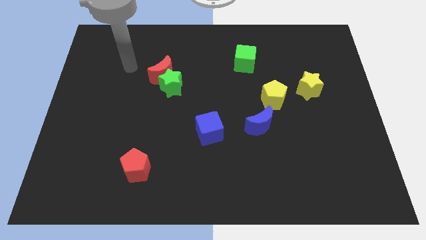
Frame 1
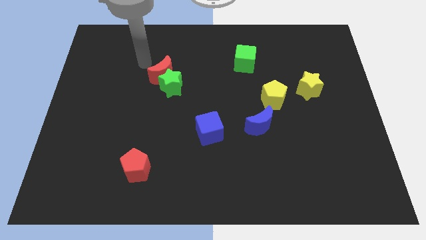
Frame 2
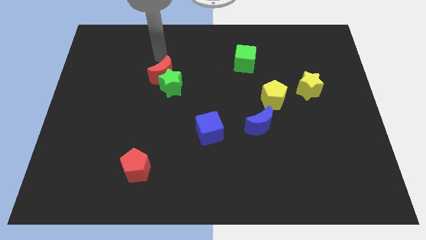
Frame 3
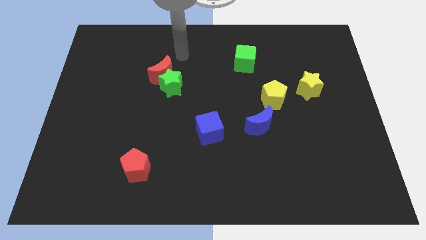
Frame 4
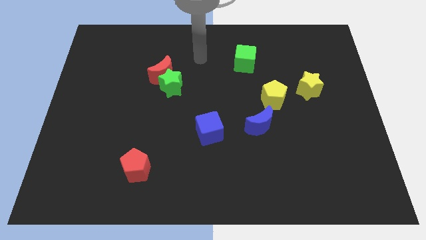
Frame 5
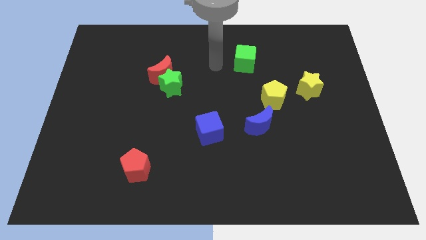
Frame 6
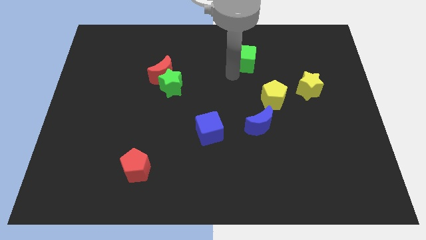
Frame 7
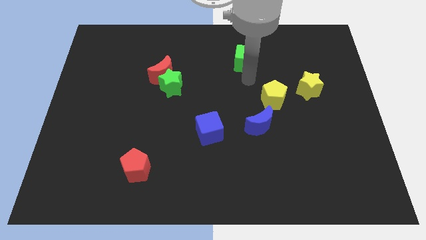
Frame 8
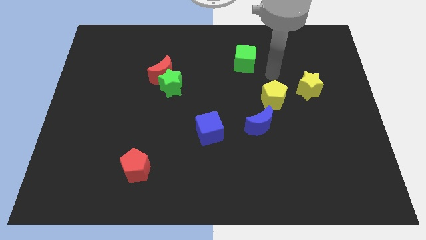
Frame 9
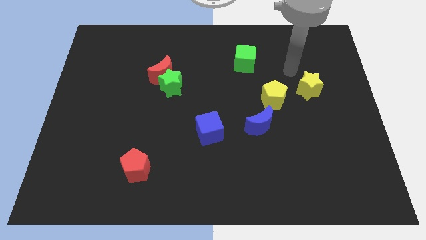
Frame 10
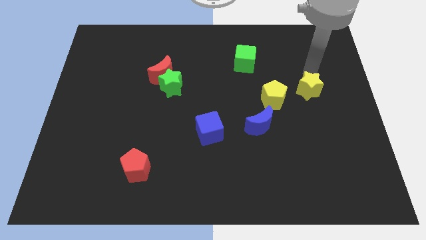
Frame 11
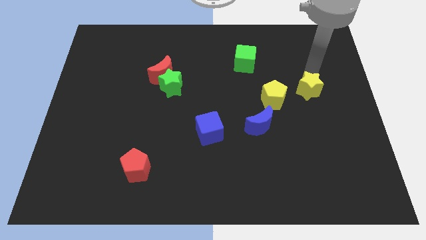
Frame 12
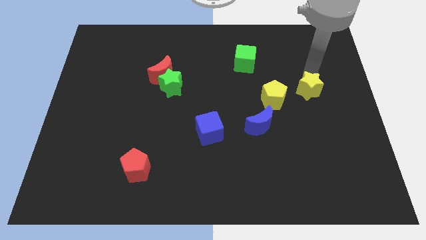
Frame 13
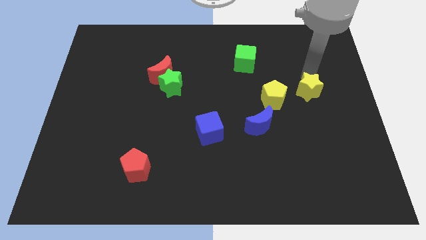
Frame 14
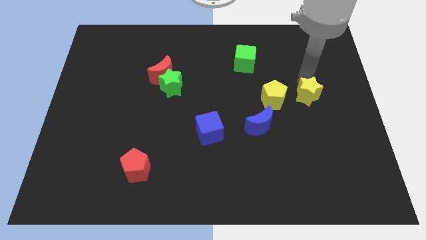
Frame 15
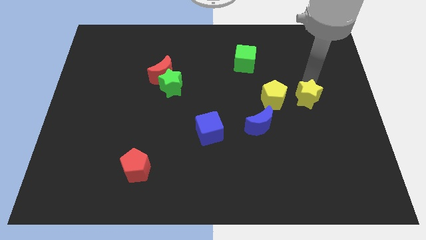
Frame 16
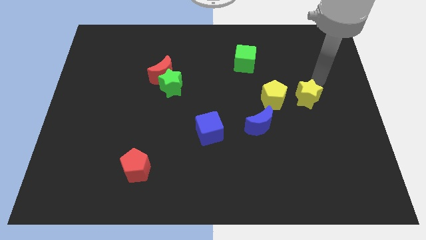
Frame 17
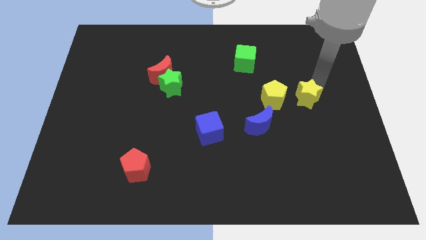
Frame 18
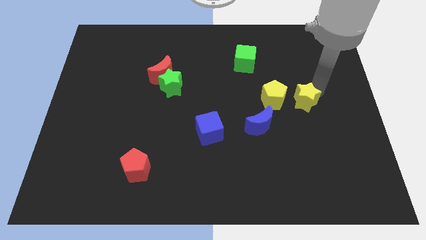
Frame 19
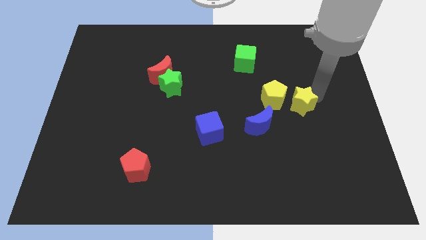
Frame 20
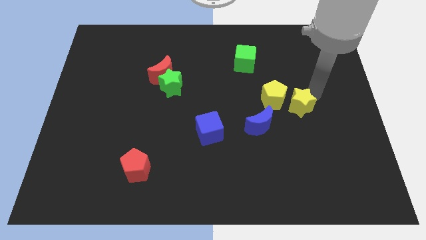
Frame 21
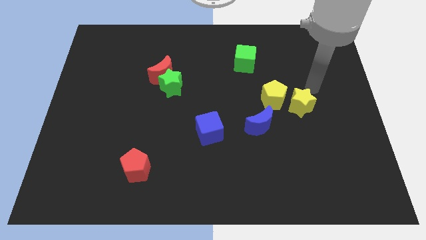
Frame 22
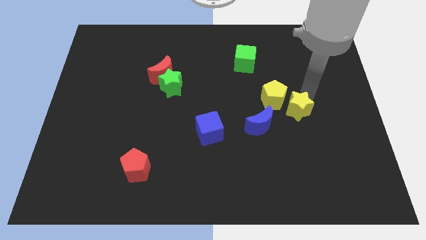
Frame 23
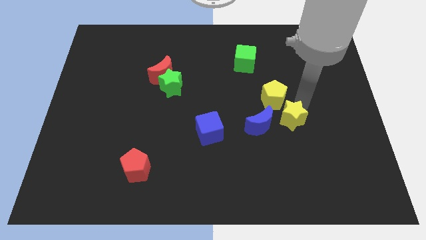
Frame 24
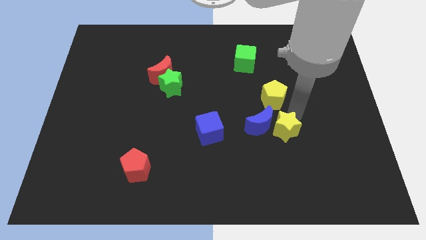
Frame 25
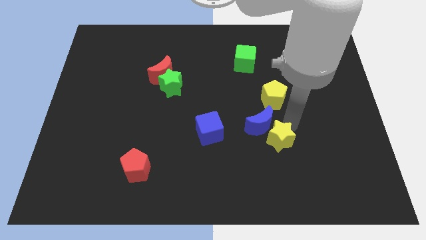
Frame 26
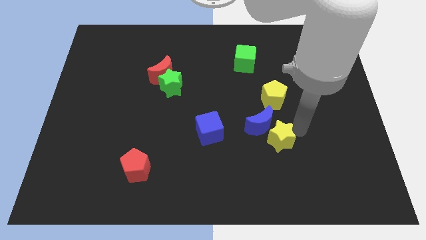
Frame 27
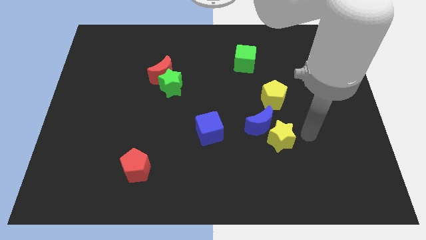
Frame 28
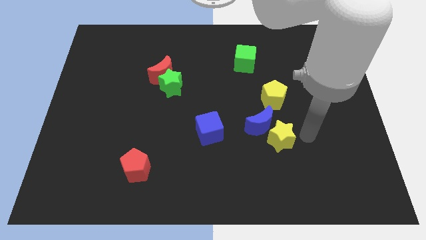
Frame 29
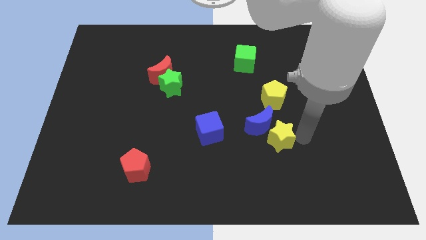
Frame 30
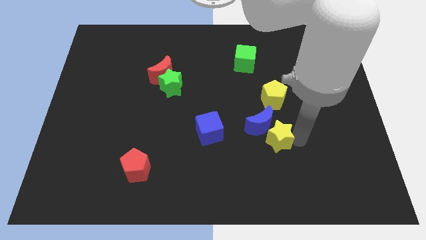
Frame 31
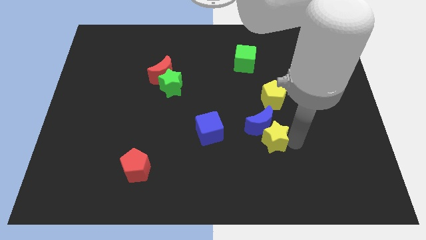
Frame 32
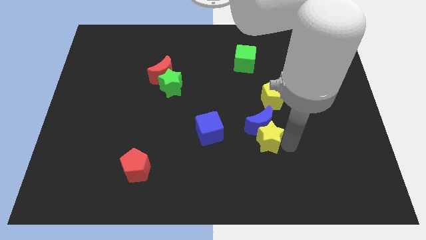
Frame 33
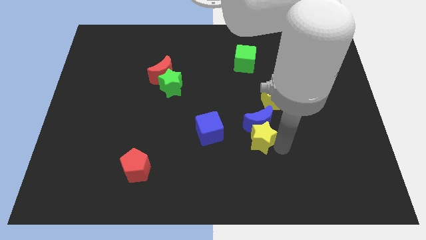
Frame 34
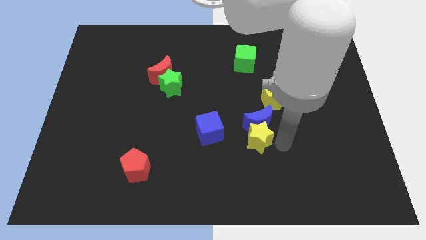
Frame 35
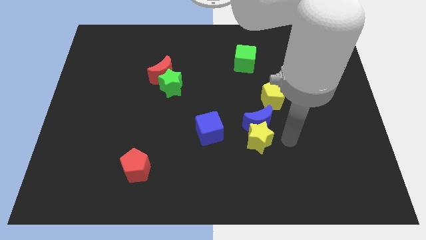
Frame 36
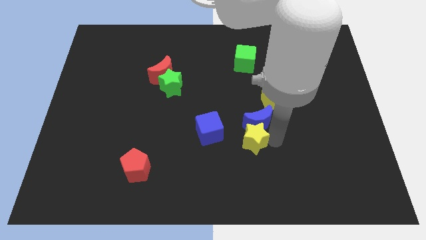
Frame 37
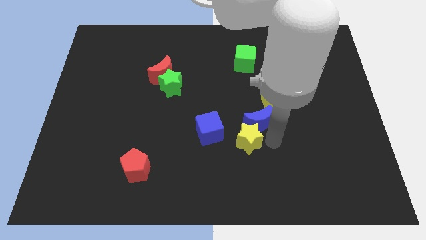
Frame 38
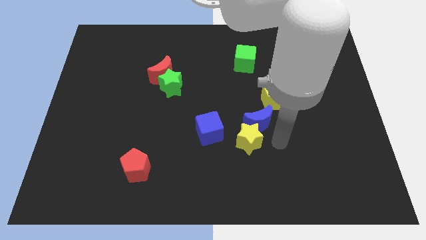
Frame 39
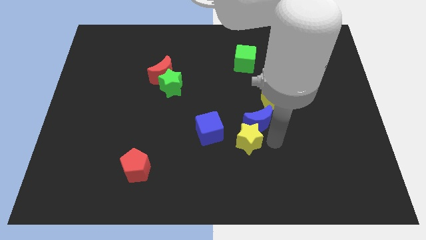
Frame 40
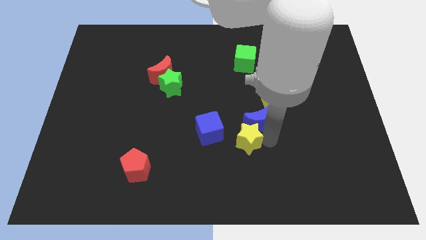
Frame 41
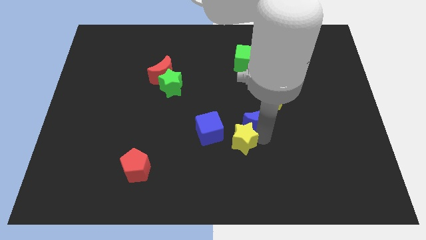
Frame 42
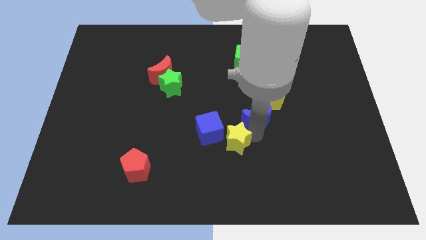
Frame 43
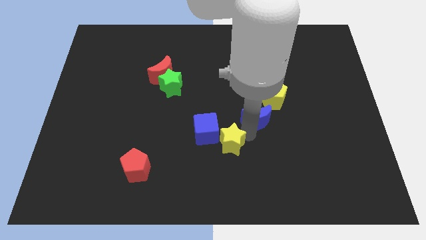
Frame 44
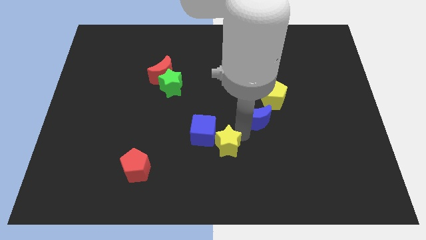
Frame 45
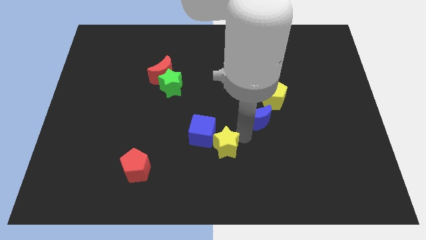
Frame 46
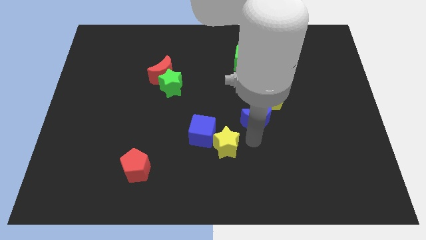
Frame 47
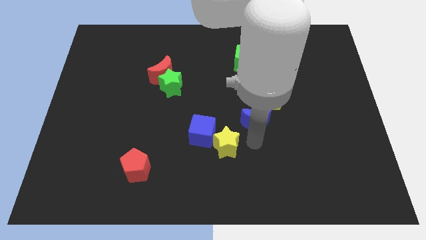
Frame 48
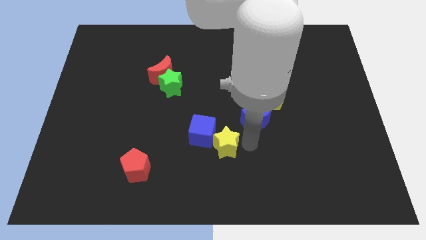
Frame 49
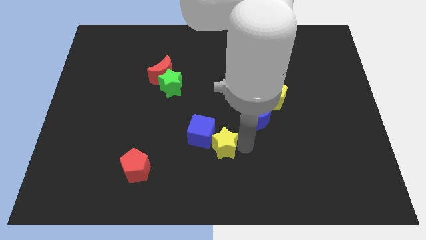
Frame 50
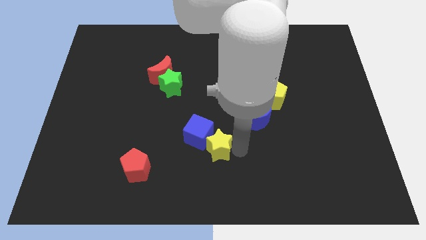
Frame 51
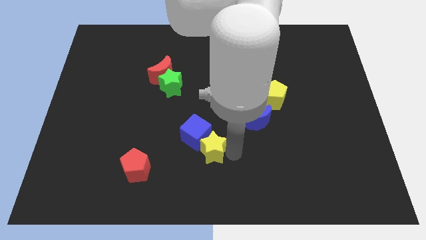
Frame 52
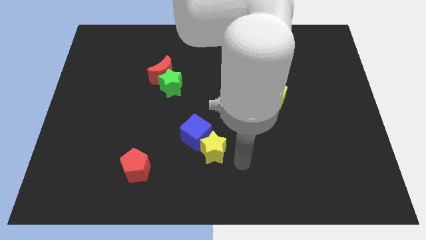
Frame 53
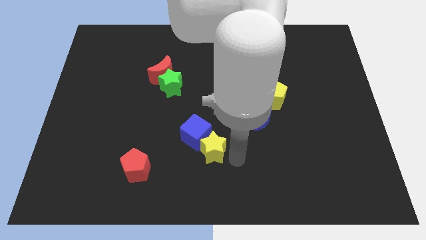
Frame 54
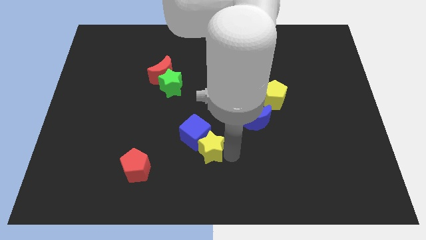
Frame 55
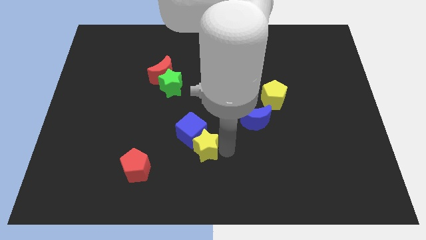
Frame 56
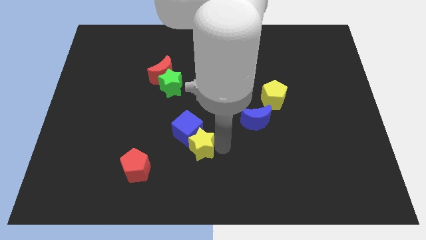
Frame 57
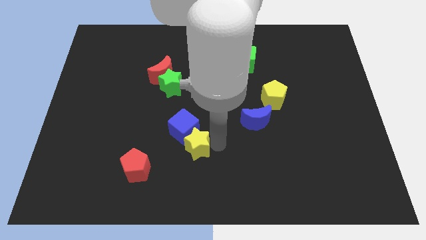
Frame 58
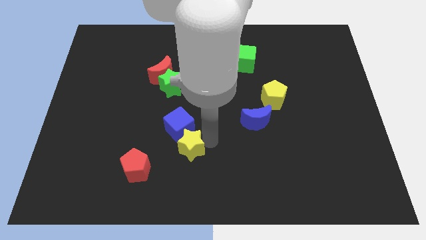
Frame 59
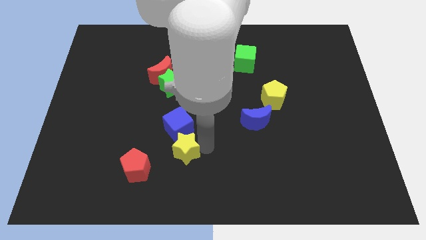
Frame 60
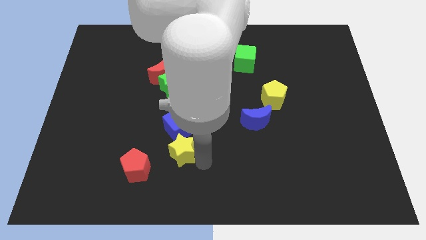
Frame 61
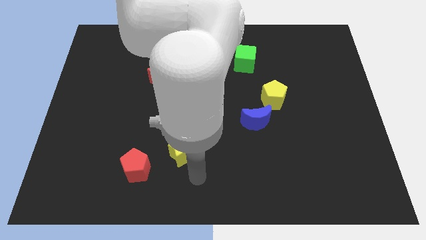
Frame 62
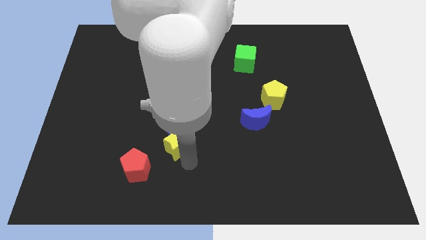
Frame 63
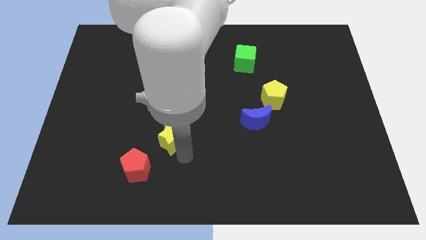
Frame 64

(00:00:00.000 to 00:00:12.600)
put the yellow star to the bottom side of the green star
